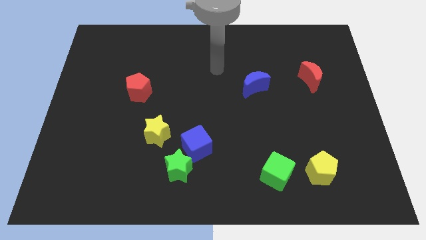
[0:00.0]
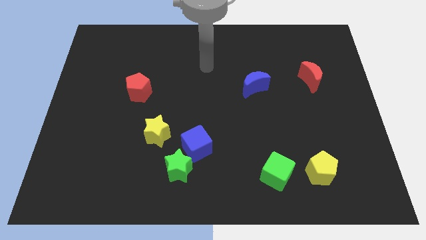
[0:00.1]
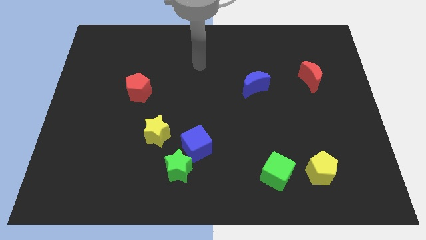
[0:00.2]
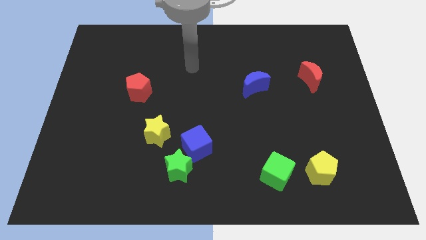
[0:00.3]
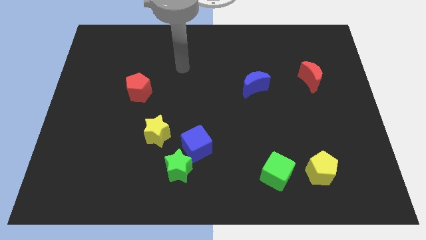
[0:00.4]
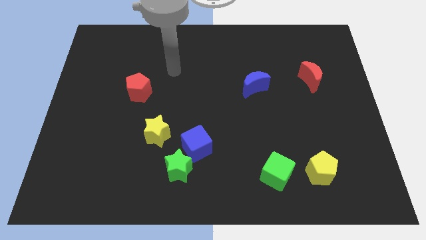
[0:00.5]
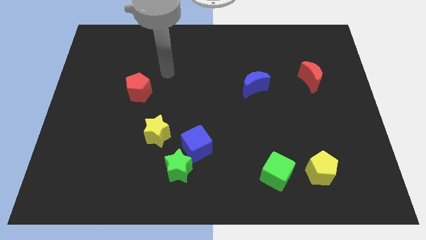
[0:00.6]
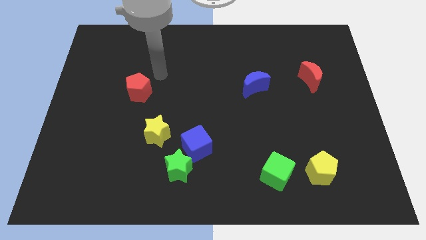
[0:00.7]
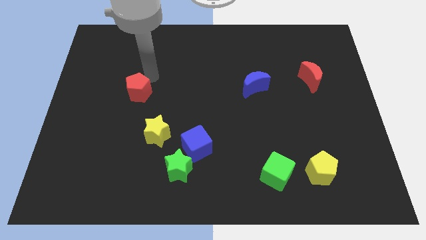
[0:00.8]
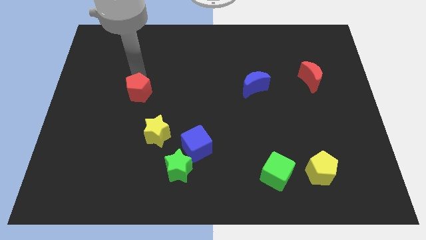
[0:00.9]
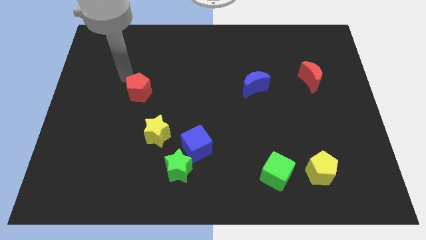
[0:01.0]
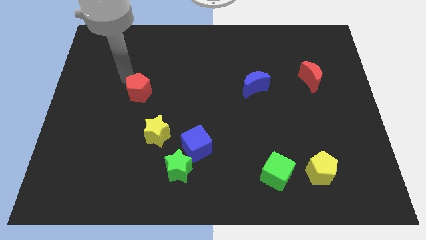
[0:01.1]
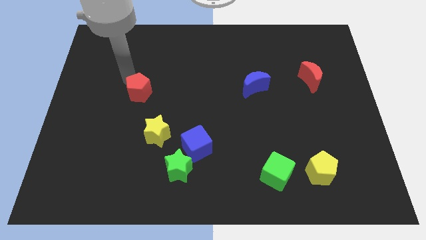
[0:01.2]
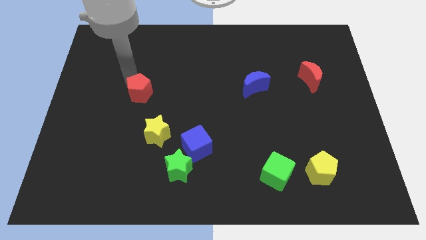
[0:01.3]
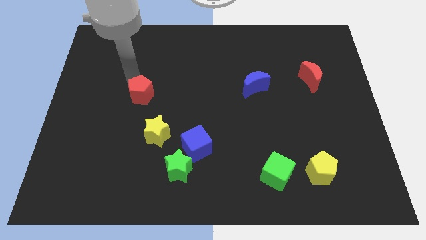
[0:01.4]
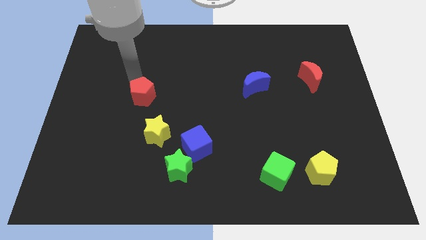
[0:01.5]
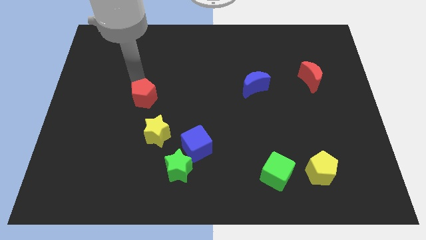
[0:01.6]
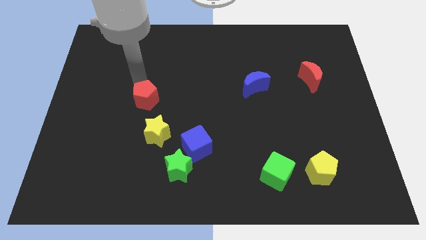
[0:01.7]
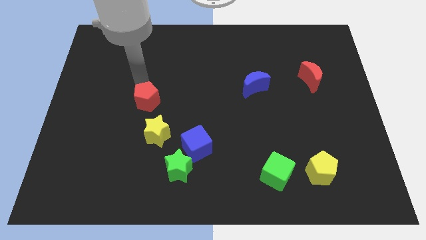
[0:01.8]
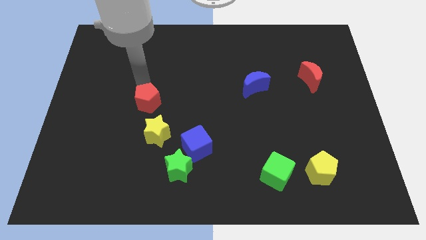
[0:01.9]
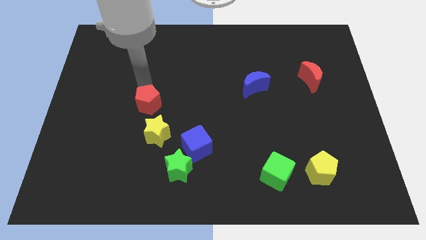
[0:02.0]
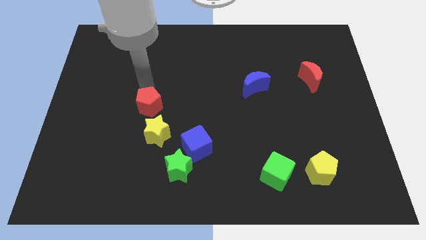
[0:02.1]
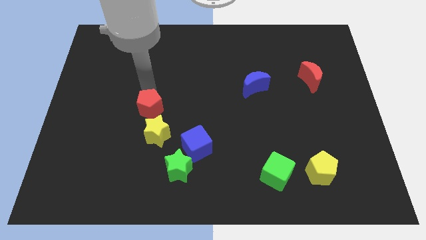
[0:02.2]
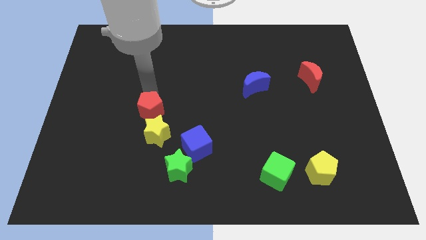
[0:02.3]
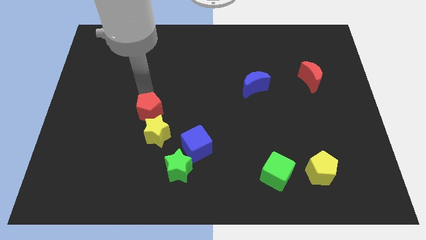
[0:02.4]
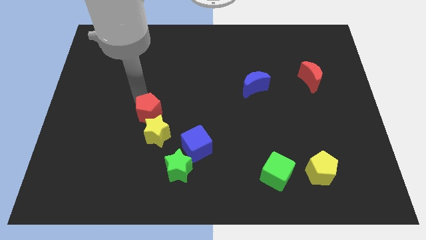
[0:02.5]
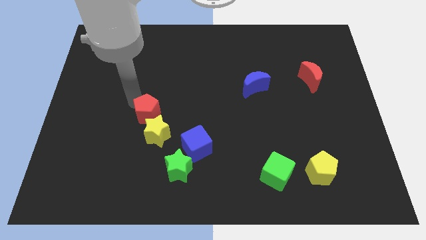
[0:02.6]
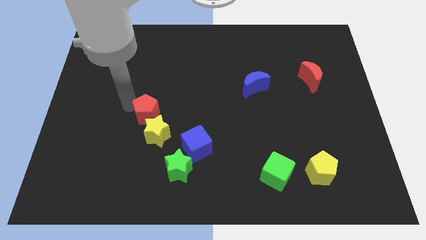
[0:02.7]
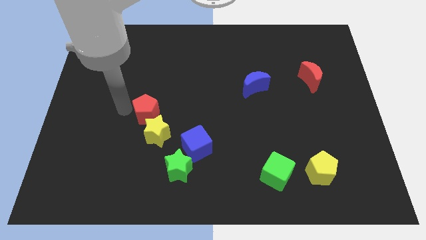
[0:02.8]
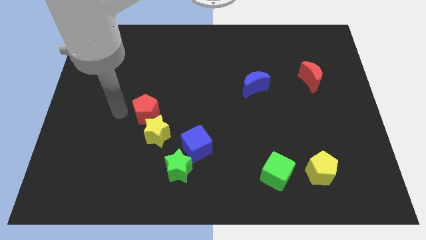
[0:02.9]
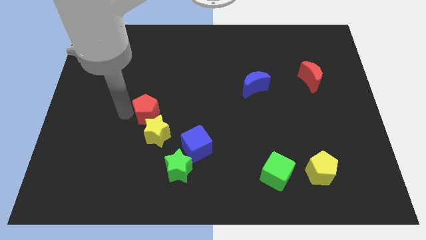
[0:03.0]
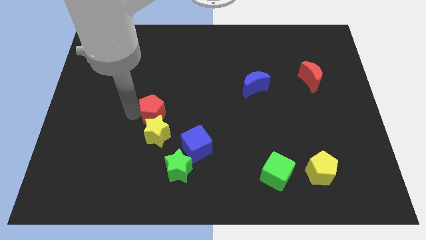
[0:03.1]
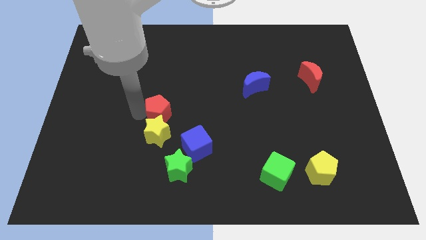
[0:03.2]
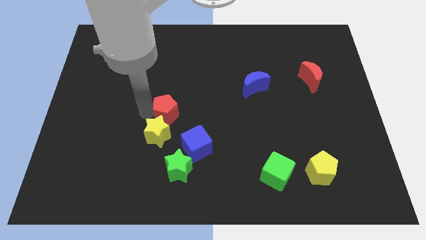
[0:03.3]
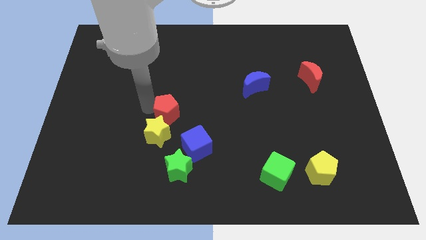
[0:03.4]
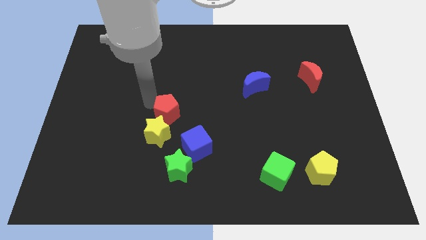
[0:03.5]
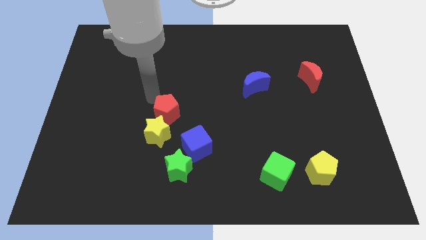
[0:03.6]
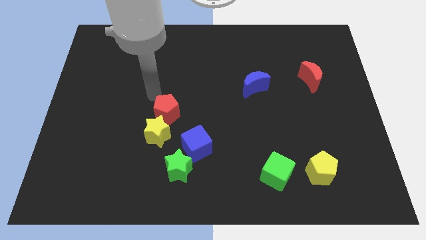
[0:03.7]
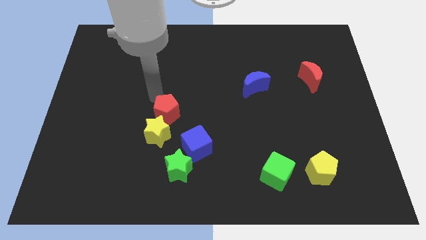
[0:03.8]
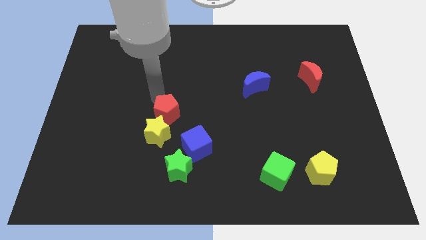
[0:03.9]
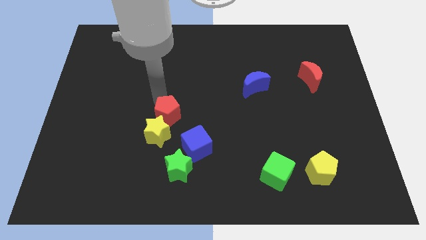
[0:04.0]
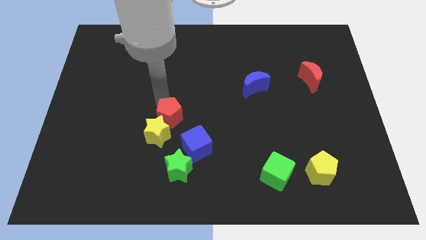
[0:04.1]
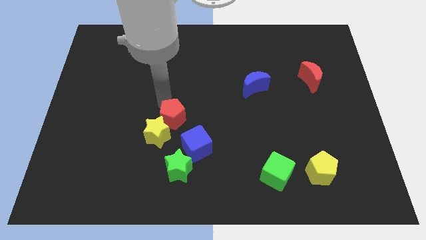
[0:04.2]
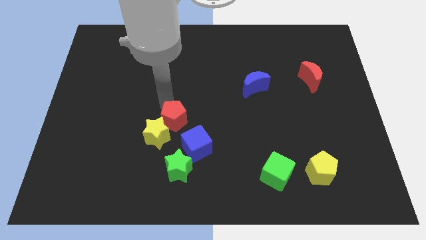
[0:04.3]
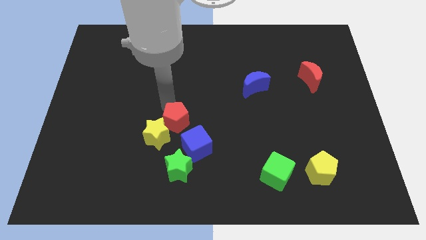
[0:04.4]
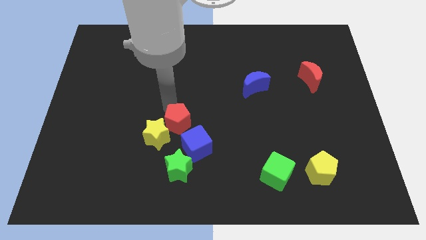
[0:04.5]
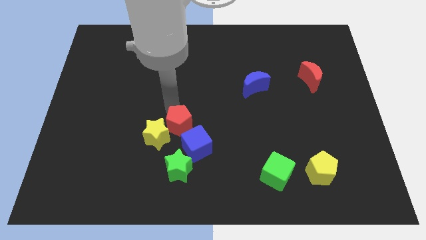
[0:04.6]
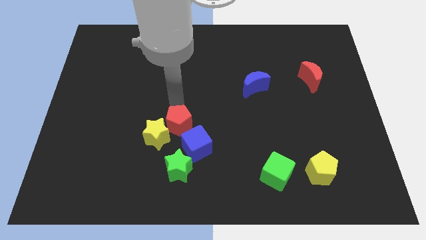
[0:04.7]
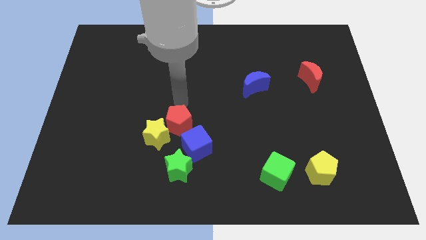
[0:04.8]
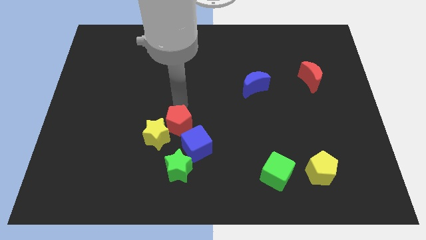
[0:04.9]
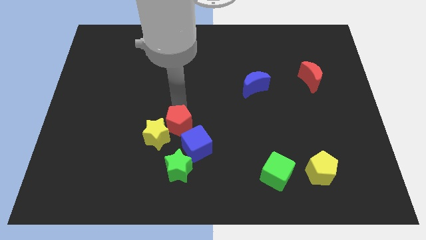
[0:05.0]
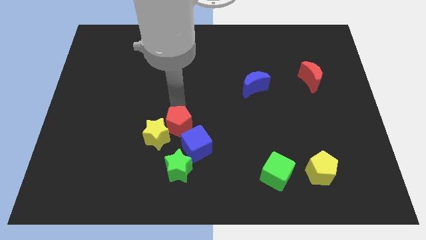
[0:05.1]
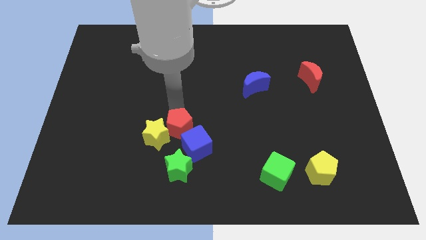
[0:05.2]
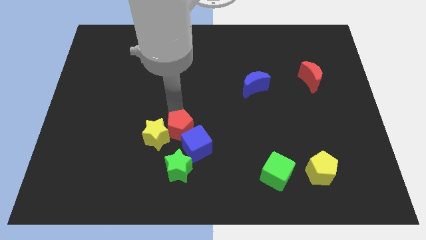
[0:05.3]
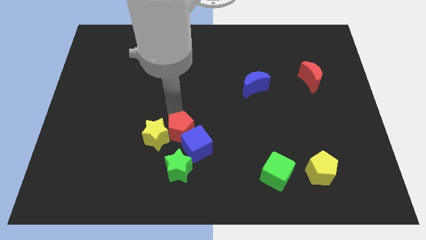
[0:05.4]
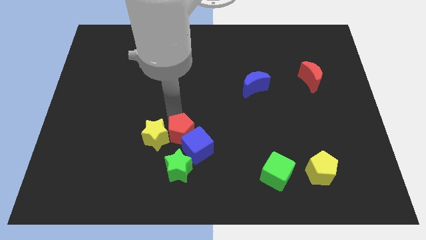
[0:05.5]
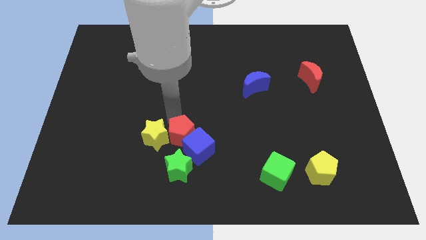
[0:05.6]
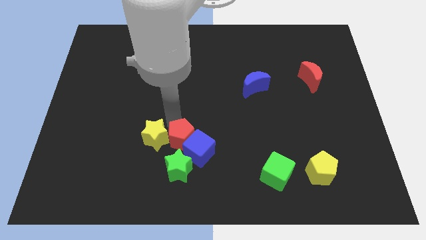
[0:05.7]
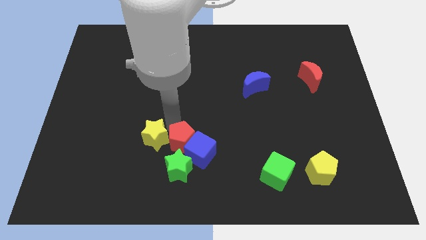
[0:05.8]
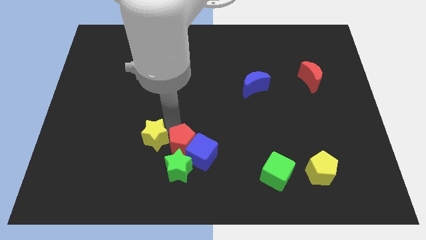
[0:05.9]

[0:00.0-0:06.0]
push the red pentagon towards the green star

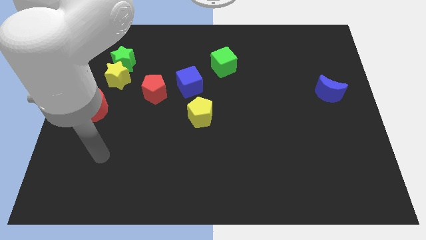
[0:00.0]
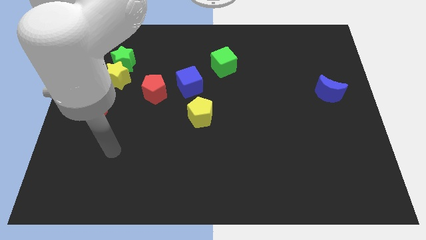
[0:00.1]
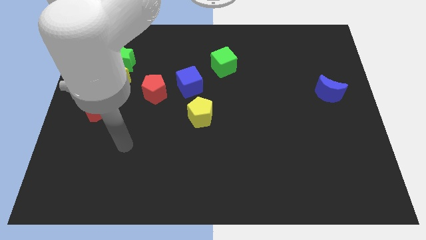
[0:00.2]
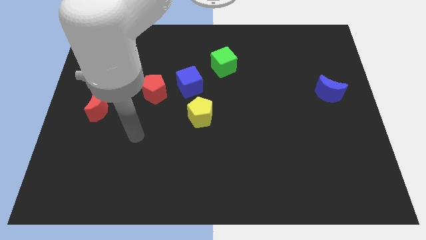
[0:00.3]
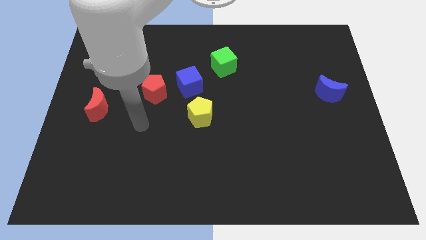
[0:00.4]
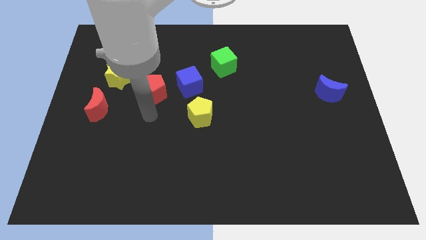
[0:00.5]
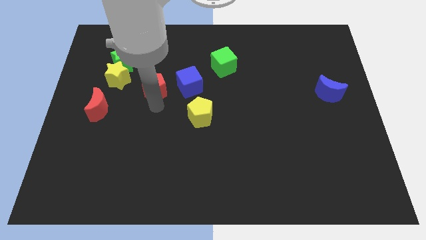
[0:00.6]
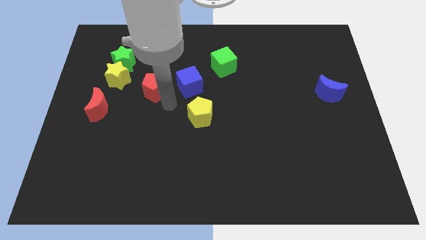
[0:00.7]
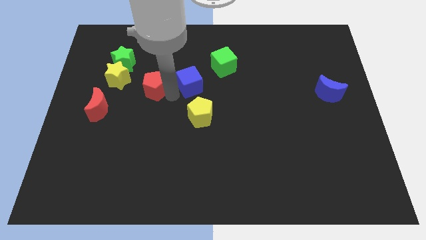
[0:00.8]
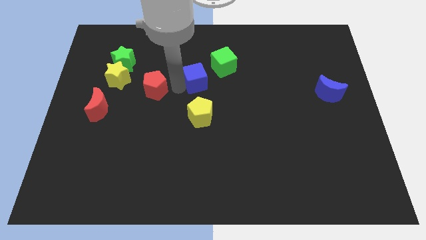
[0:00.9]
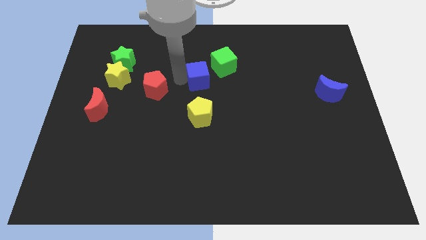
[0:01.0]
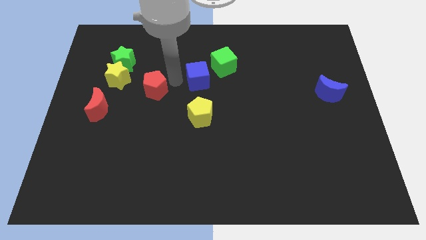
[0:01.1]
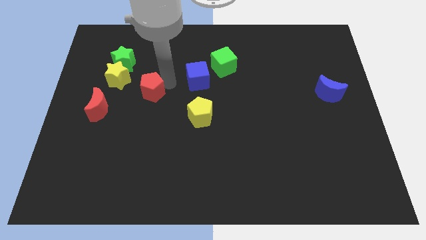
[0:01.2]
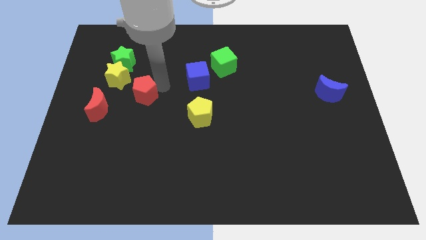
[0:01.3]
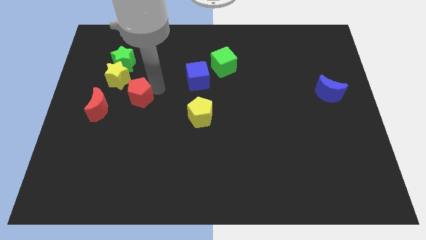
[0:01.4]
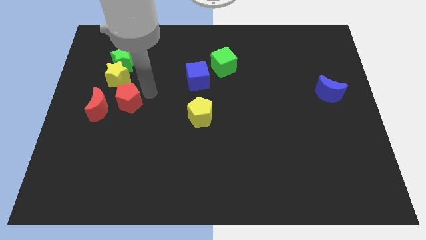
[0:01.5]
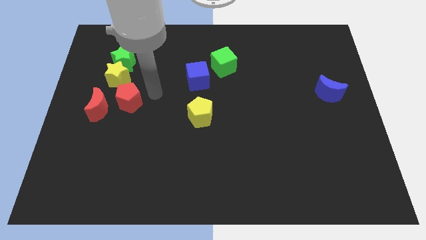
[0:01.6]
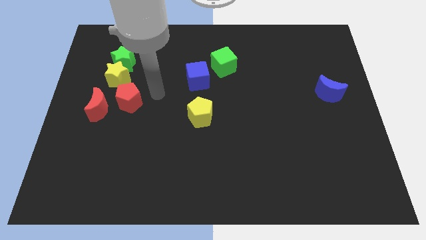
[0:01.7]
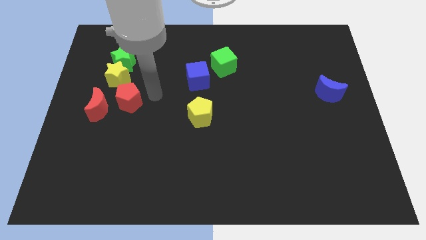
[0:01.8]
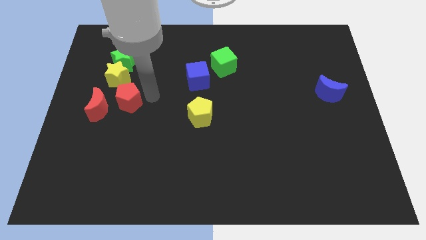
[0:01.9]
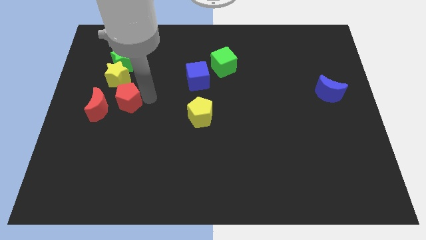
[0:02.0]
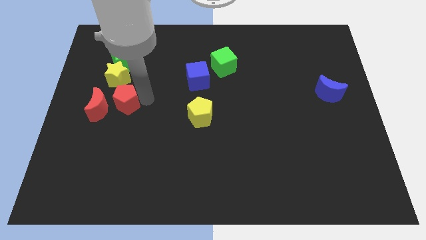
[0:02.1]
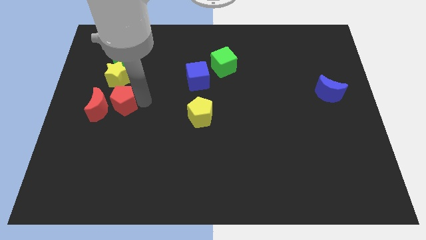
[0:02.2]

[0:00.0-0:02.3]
move the red pentagon towards the red moon
